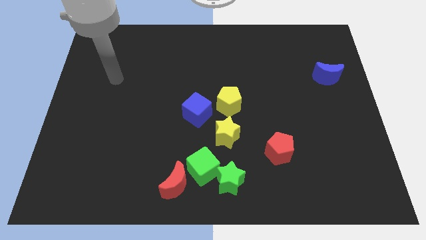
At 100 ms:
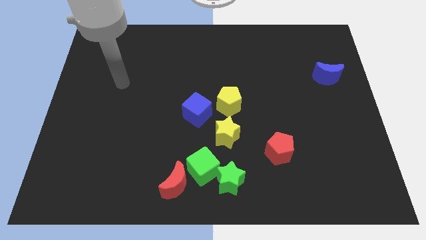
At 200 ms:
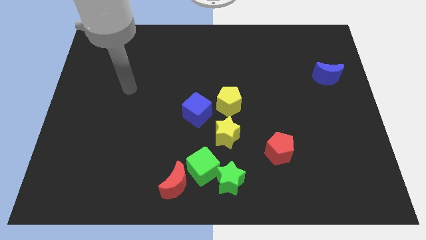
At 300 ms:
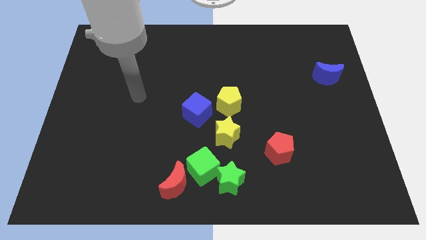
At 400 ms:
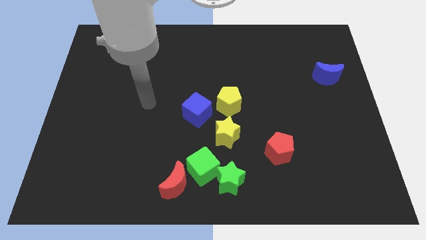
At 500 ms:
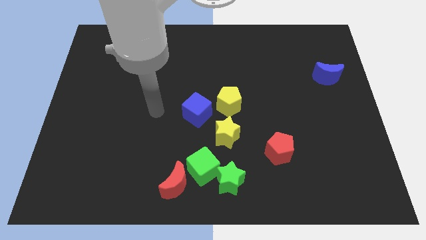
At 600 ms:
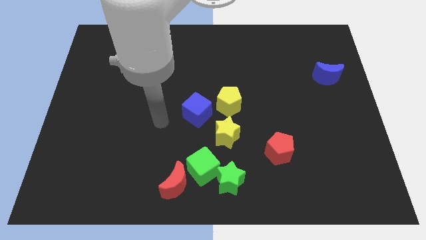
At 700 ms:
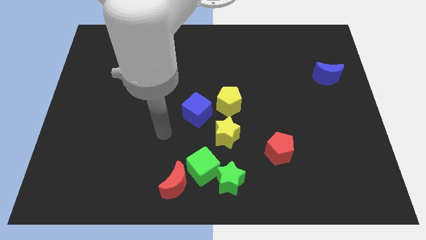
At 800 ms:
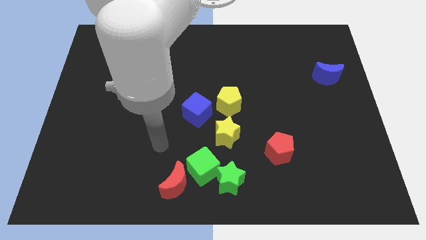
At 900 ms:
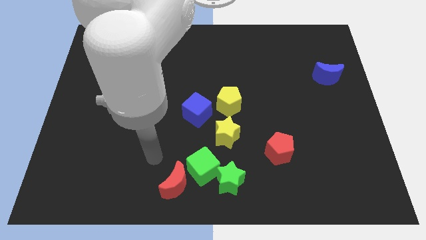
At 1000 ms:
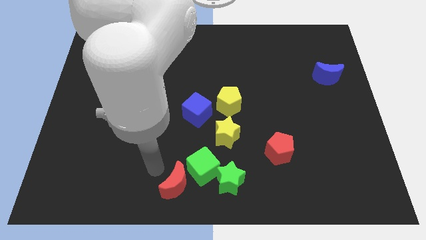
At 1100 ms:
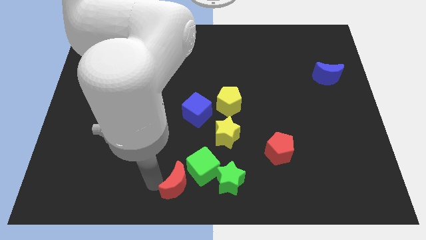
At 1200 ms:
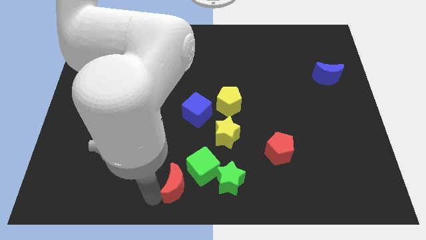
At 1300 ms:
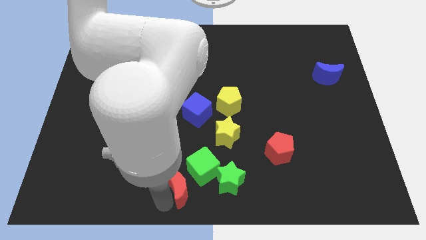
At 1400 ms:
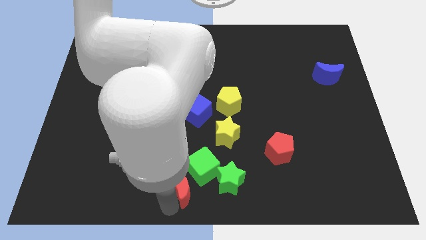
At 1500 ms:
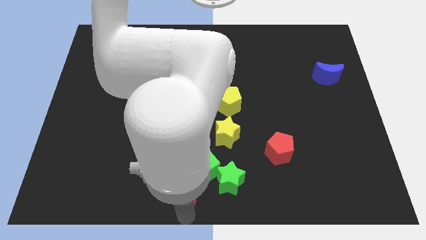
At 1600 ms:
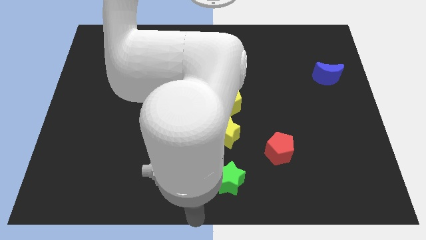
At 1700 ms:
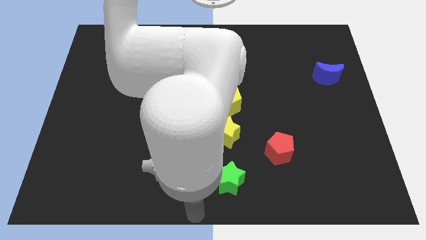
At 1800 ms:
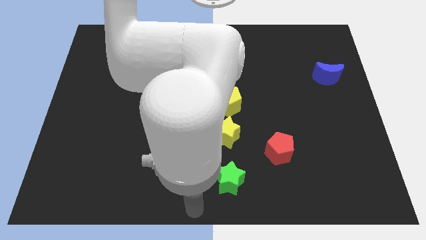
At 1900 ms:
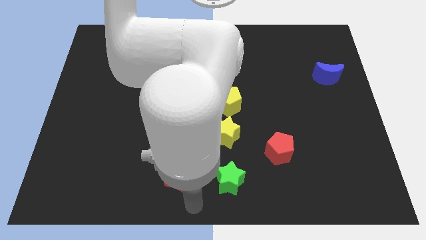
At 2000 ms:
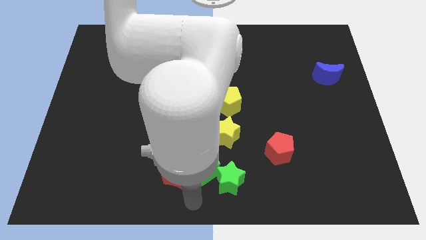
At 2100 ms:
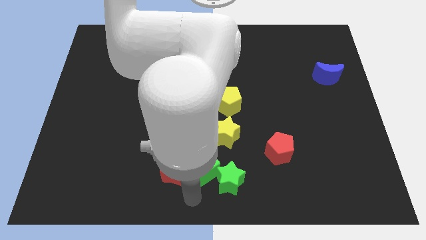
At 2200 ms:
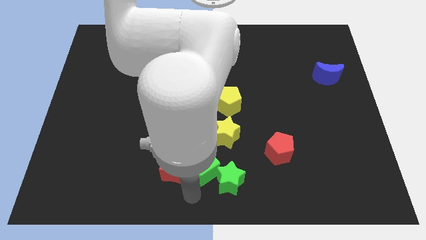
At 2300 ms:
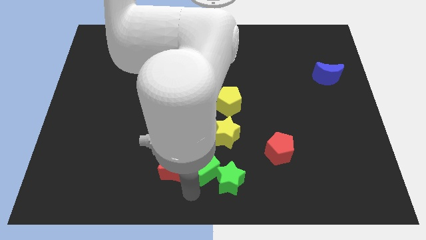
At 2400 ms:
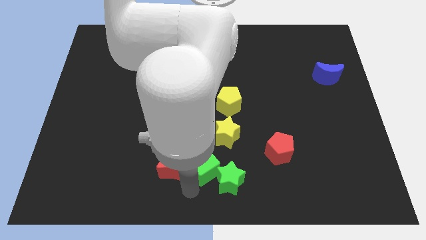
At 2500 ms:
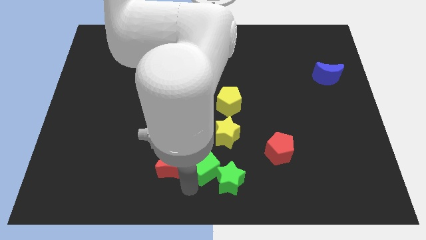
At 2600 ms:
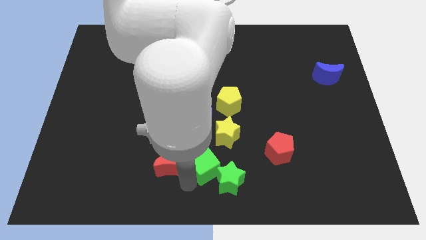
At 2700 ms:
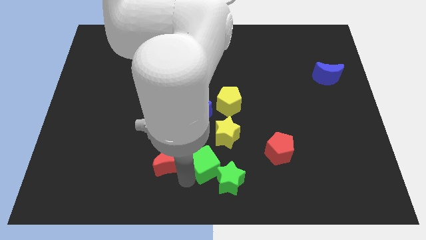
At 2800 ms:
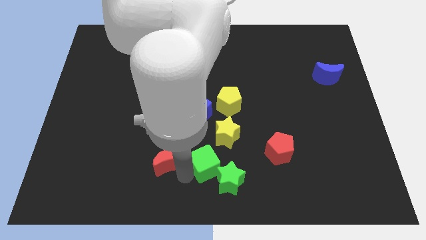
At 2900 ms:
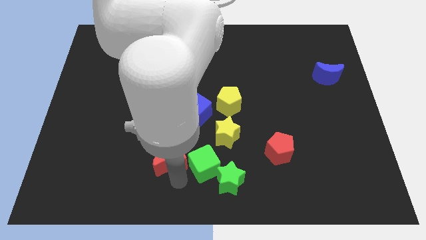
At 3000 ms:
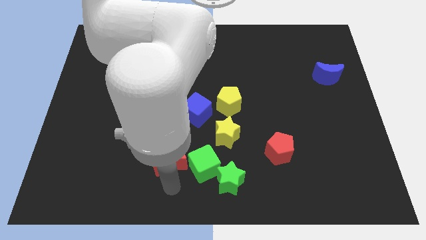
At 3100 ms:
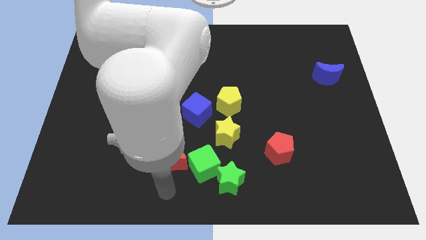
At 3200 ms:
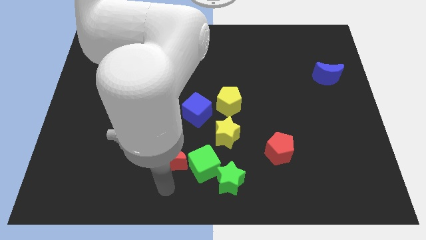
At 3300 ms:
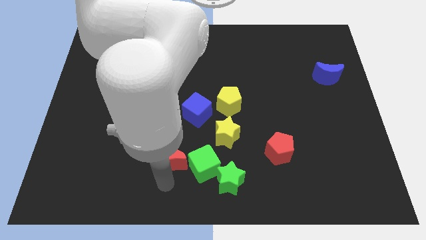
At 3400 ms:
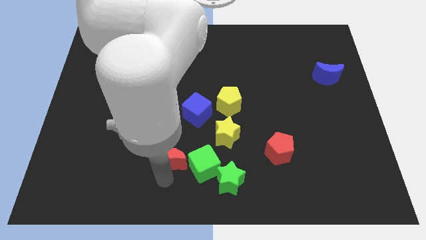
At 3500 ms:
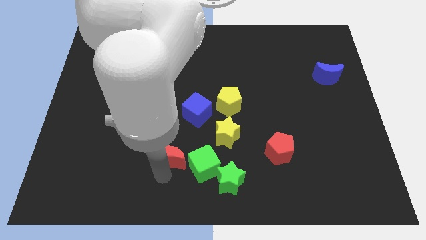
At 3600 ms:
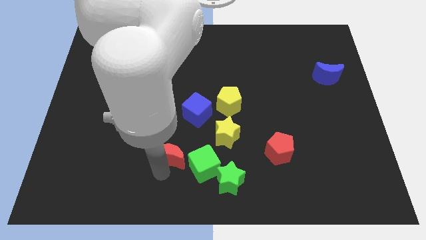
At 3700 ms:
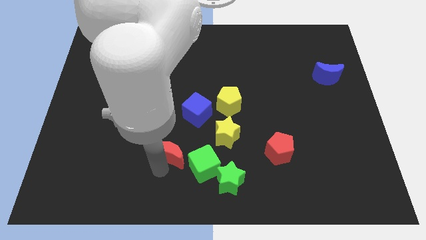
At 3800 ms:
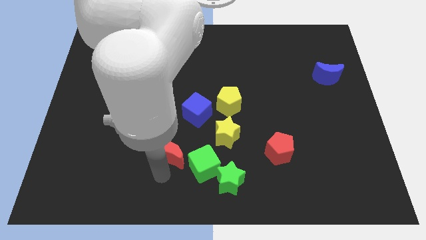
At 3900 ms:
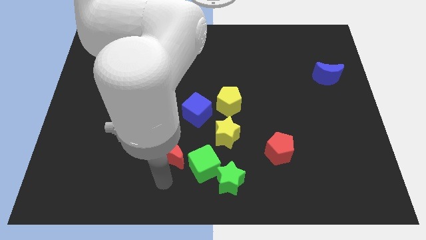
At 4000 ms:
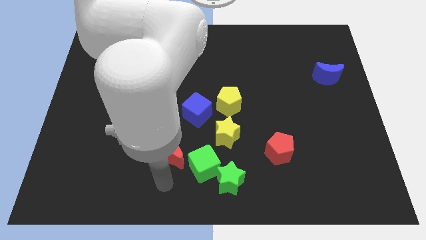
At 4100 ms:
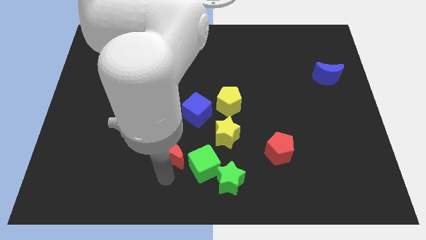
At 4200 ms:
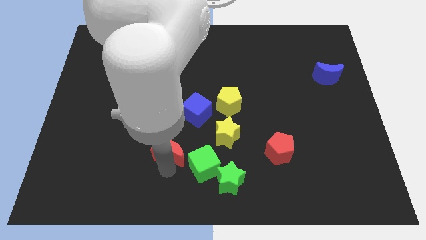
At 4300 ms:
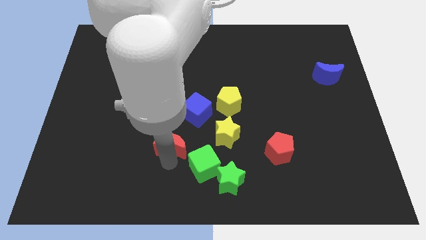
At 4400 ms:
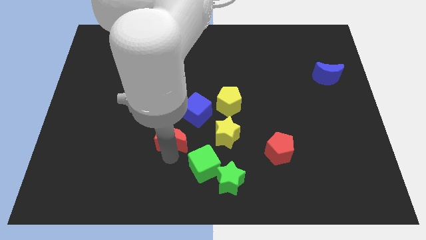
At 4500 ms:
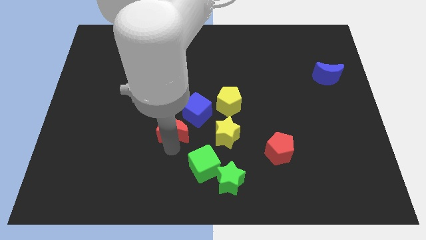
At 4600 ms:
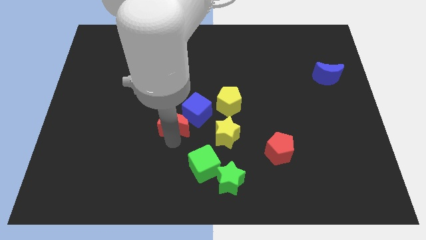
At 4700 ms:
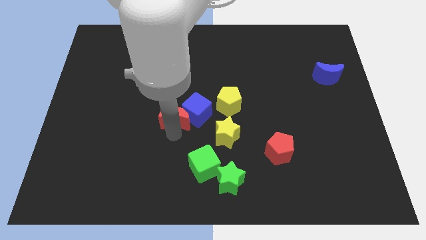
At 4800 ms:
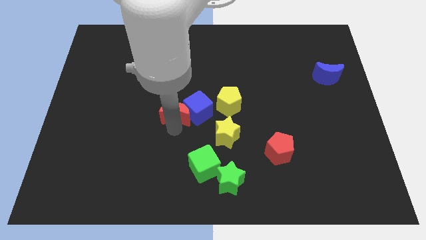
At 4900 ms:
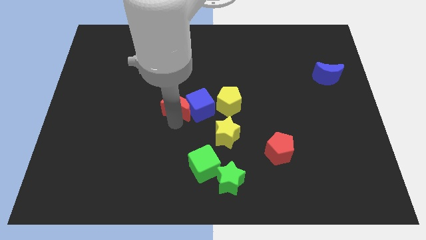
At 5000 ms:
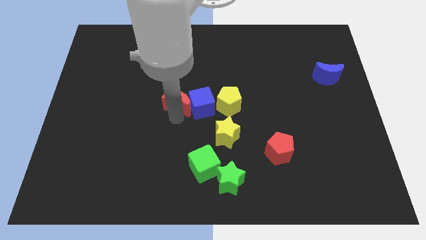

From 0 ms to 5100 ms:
push the red moon up

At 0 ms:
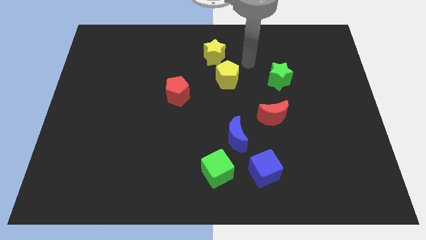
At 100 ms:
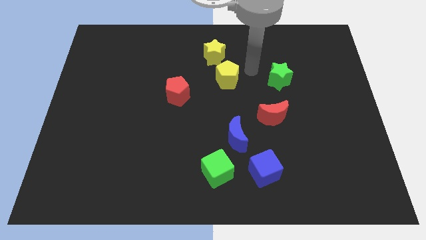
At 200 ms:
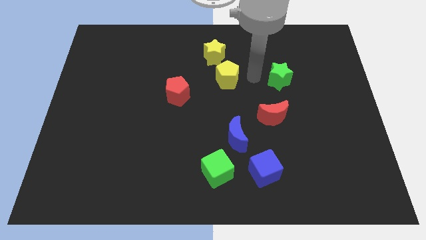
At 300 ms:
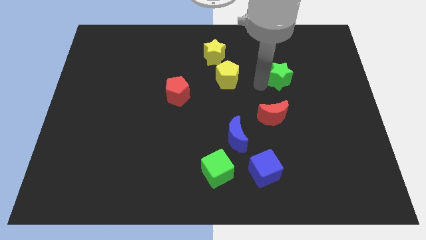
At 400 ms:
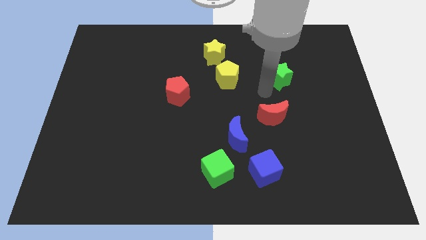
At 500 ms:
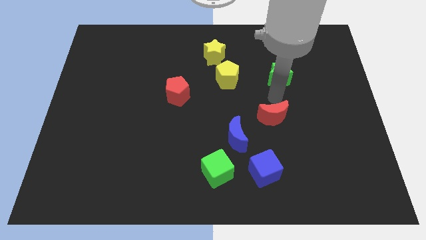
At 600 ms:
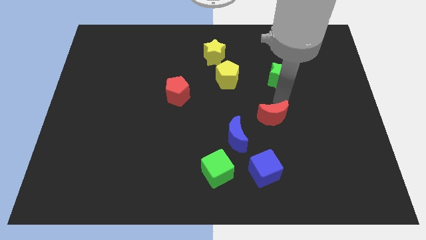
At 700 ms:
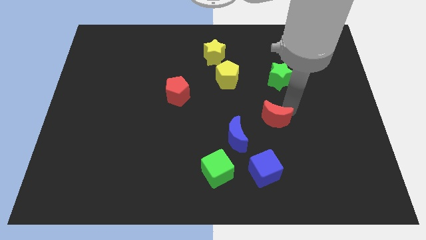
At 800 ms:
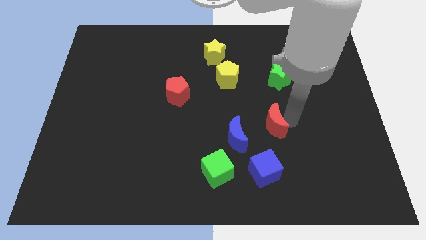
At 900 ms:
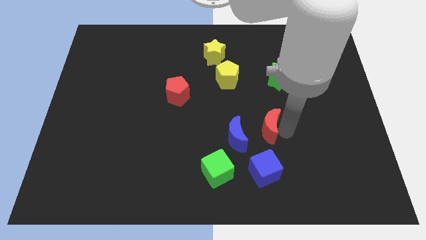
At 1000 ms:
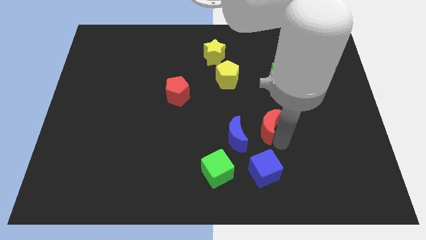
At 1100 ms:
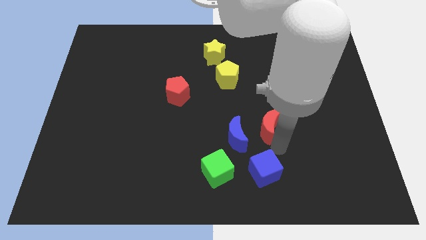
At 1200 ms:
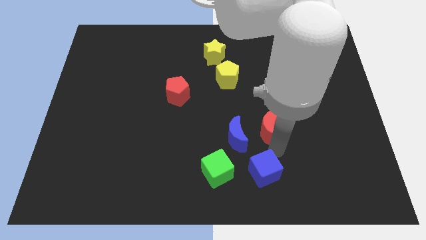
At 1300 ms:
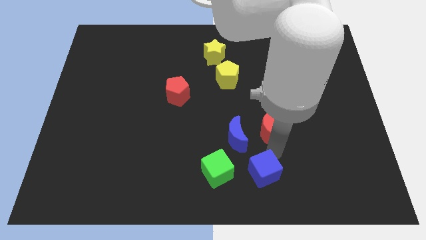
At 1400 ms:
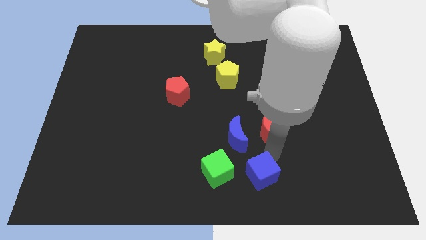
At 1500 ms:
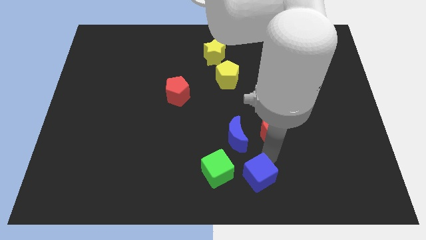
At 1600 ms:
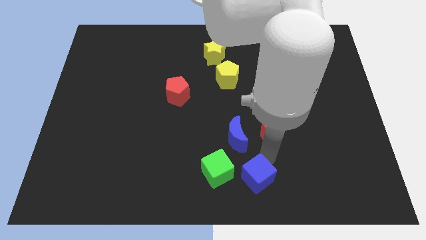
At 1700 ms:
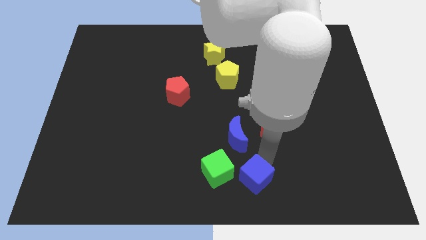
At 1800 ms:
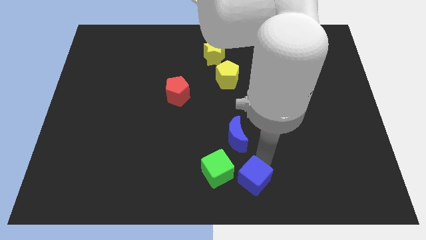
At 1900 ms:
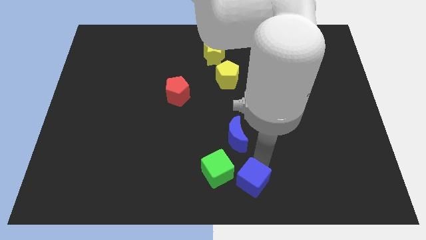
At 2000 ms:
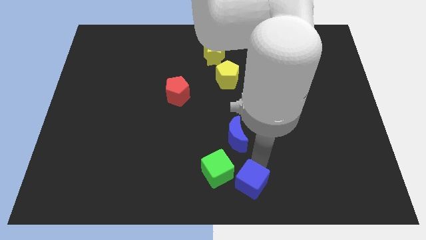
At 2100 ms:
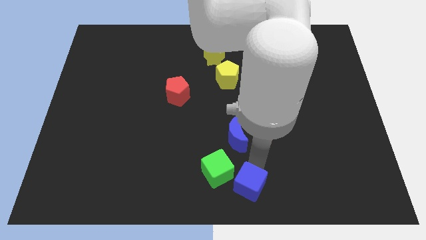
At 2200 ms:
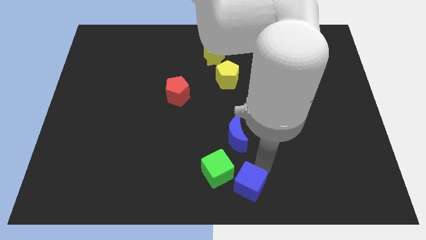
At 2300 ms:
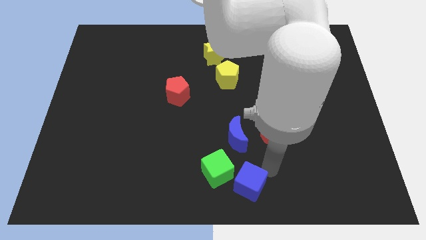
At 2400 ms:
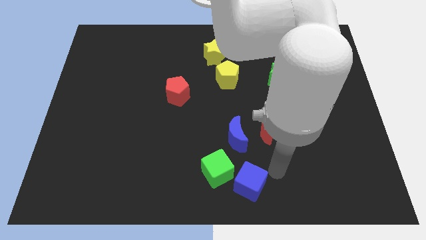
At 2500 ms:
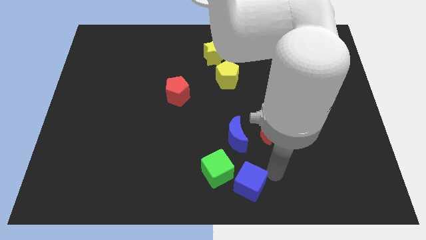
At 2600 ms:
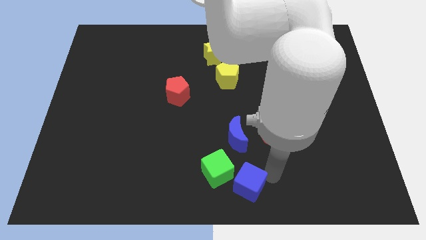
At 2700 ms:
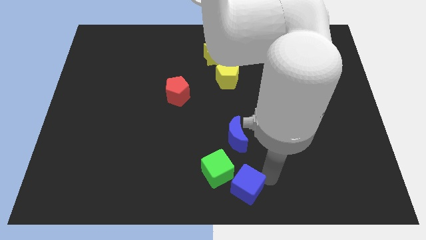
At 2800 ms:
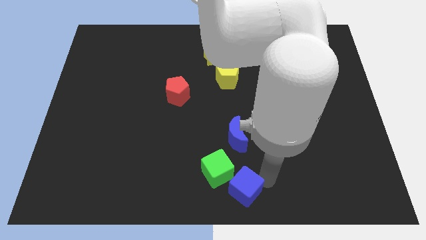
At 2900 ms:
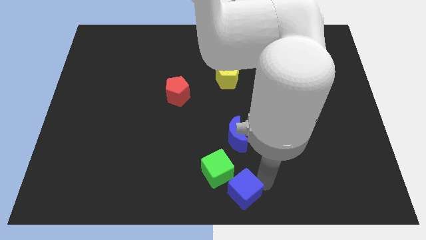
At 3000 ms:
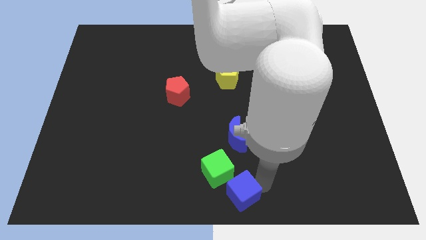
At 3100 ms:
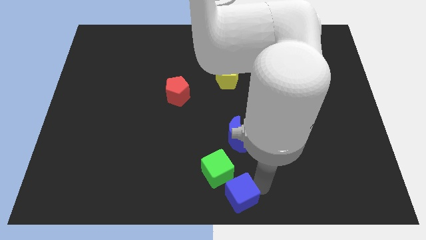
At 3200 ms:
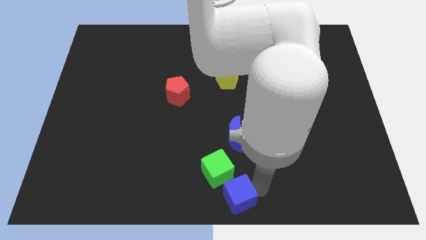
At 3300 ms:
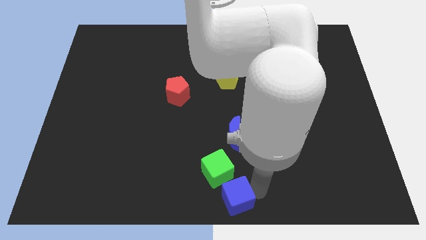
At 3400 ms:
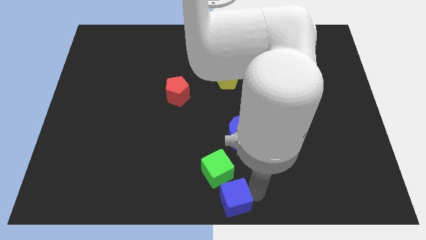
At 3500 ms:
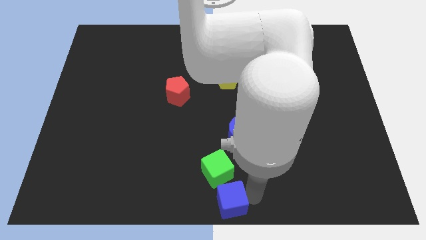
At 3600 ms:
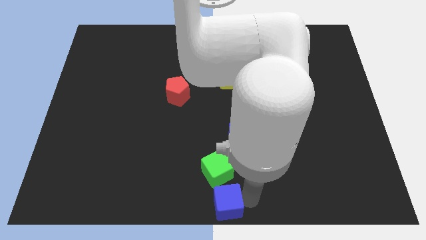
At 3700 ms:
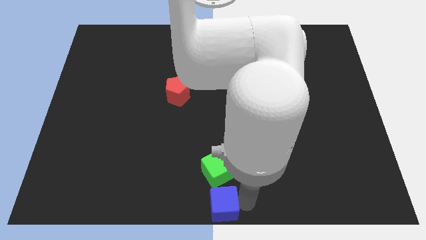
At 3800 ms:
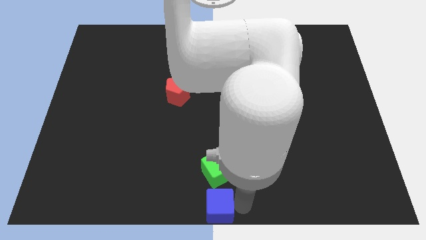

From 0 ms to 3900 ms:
push the blue cube a little to the left
